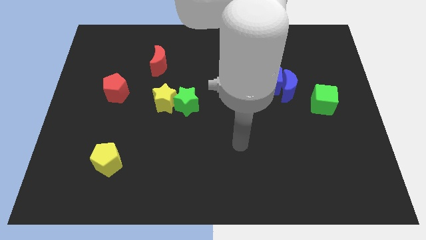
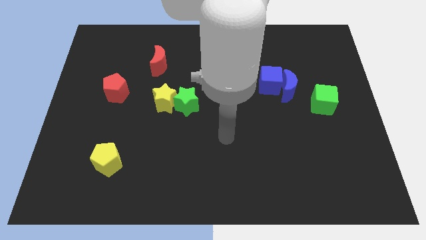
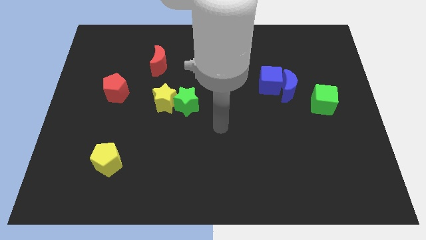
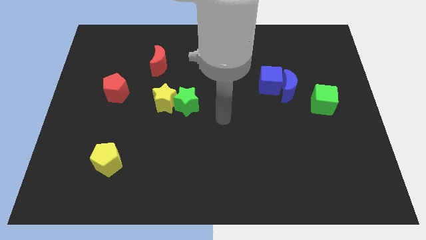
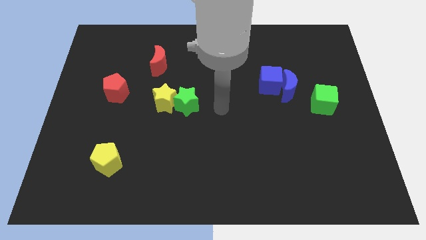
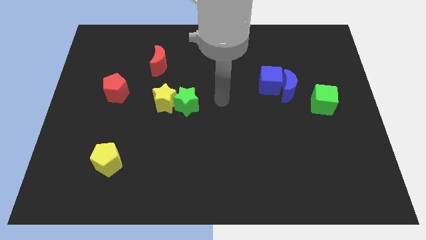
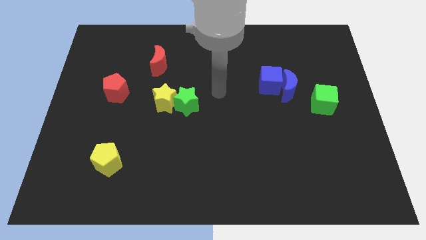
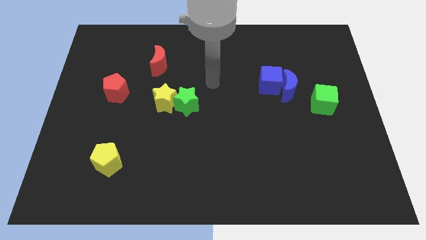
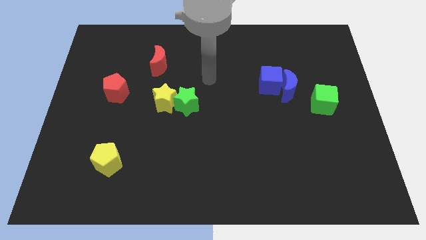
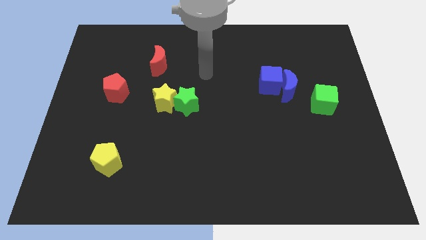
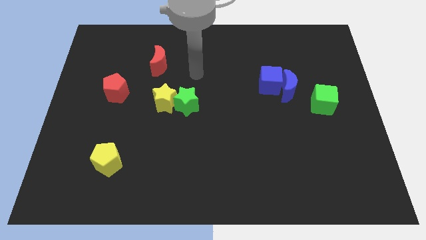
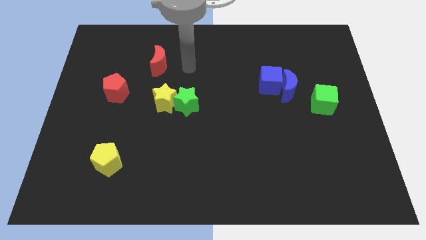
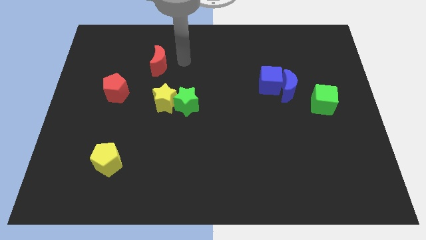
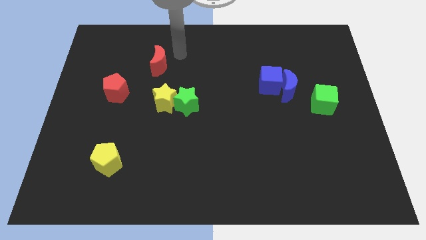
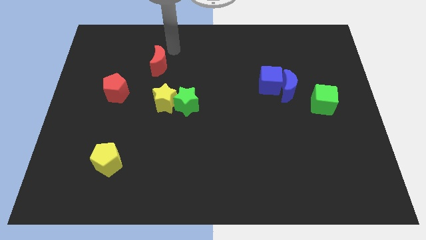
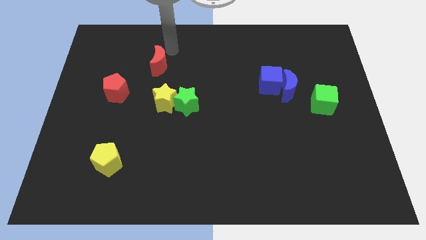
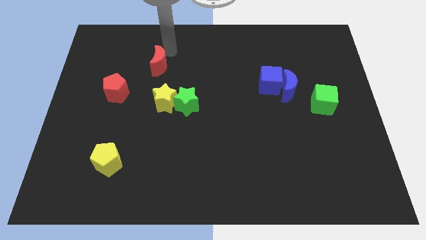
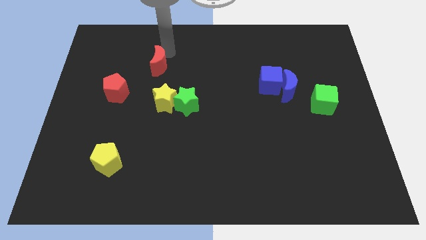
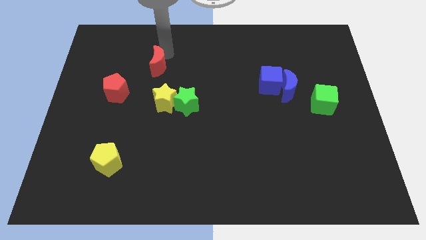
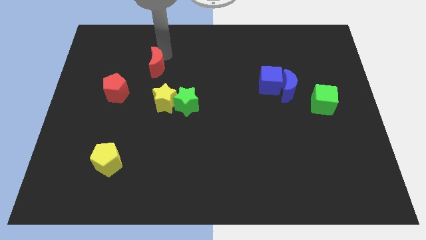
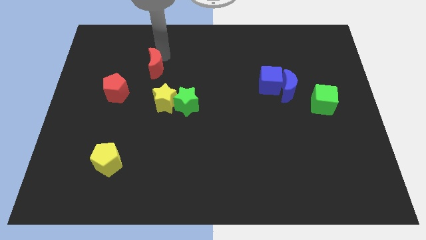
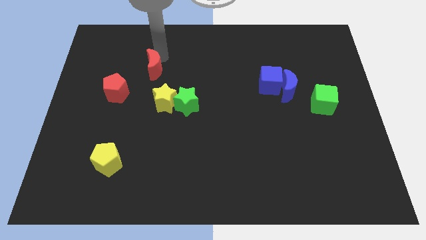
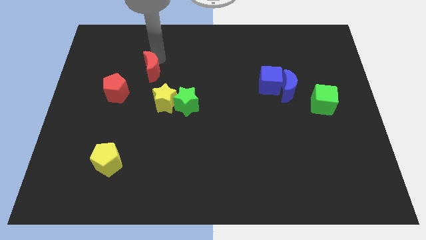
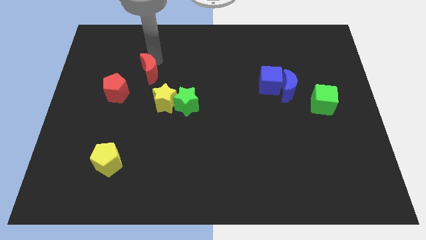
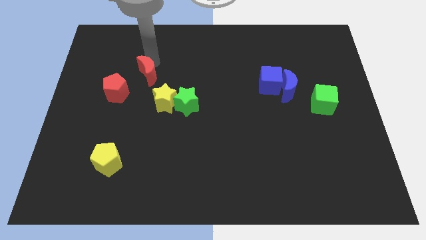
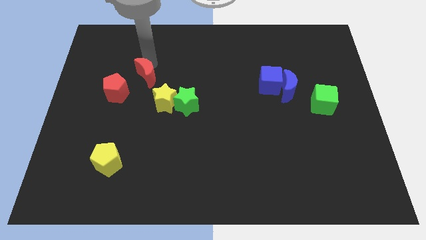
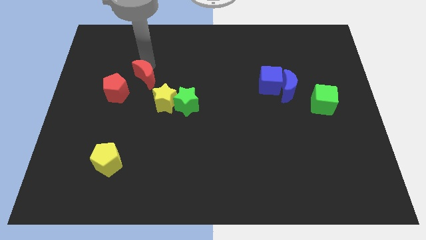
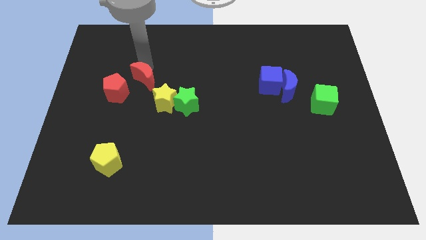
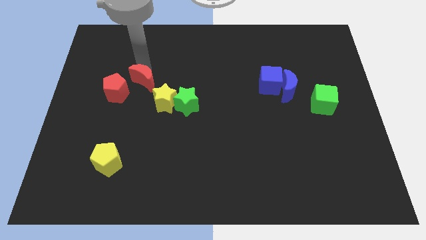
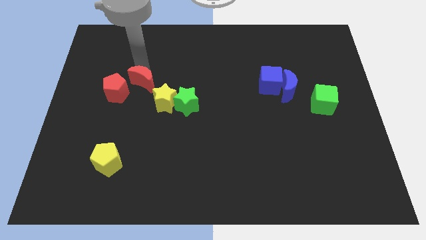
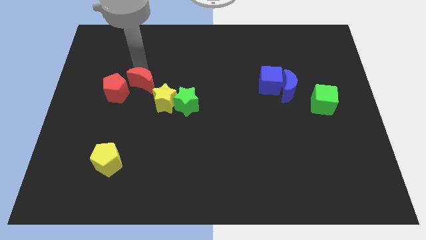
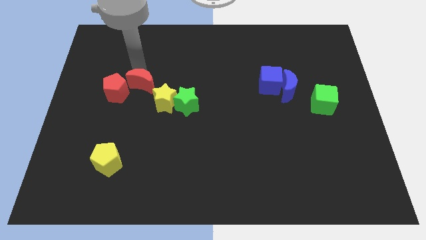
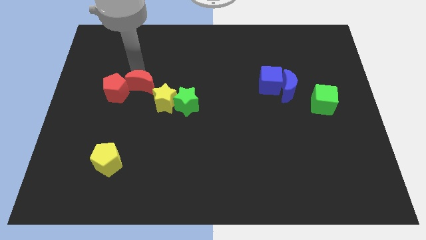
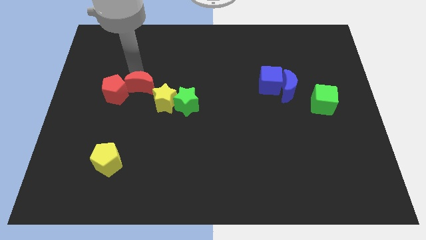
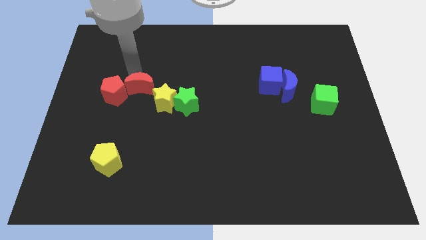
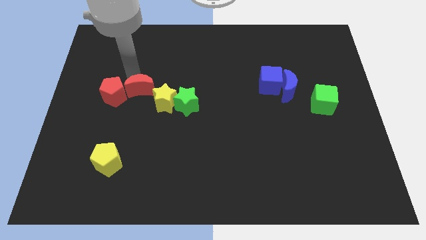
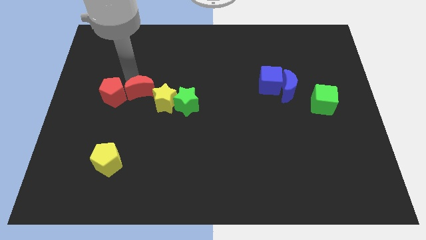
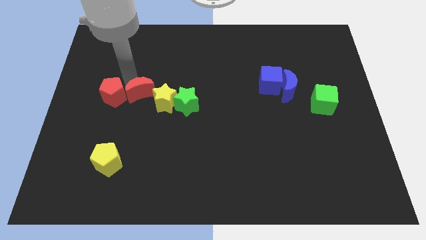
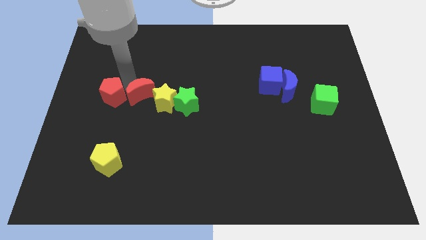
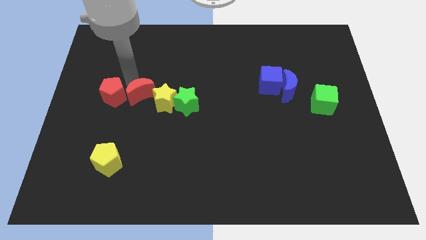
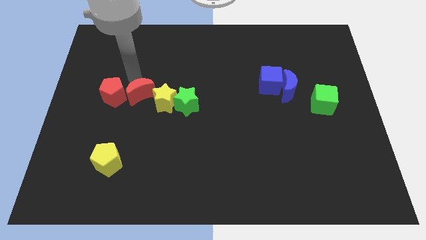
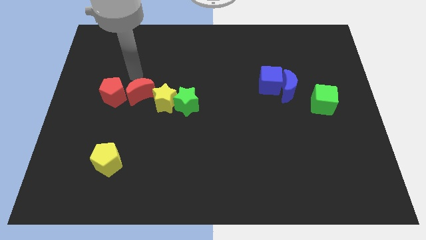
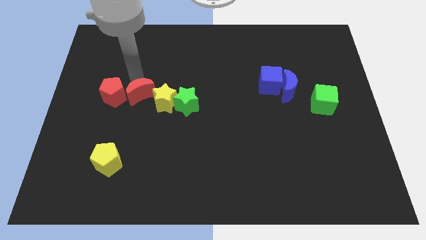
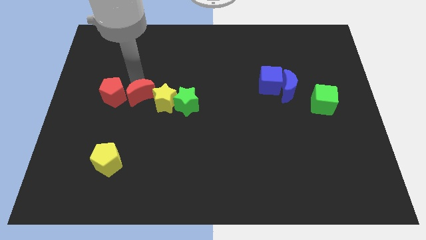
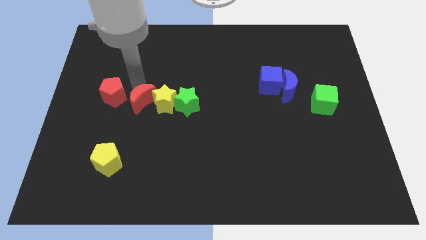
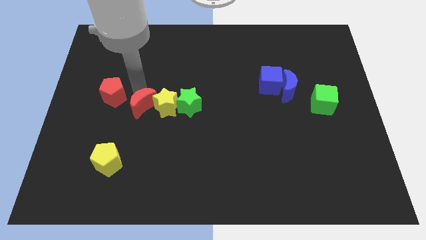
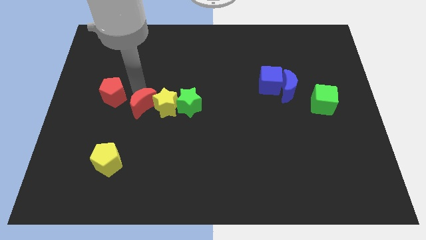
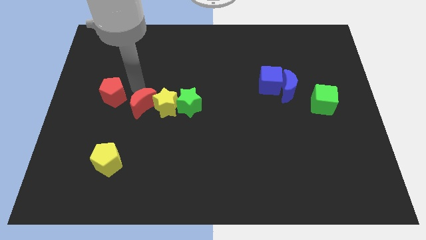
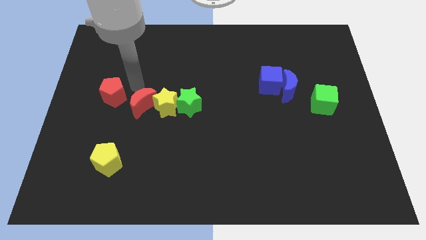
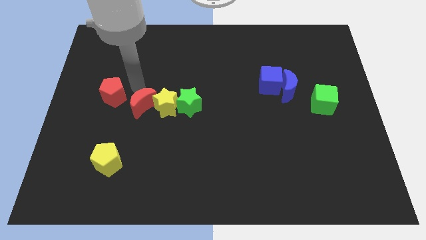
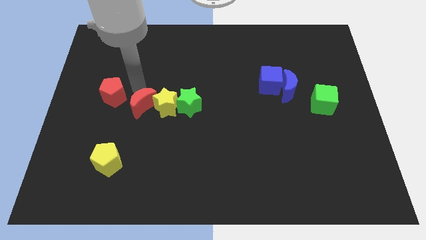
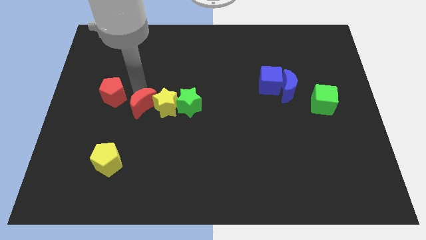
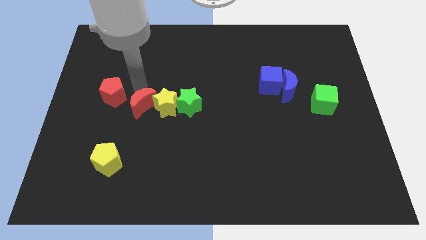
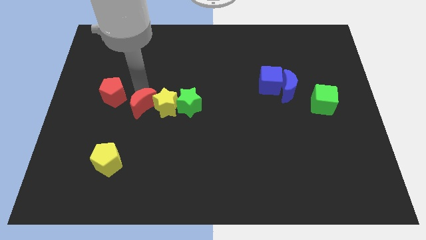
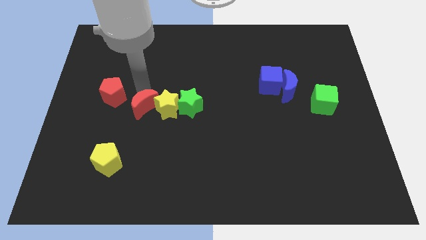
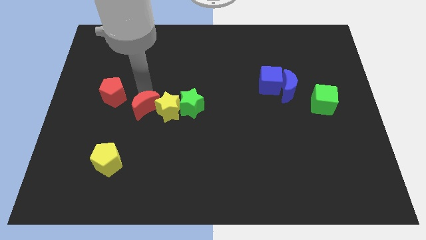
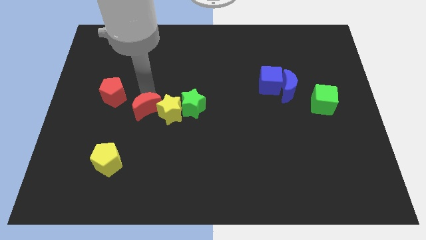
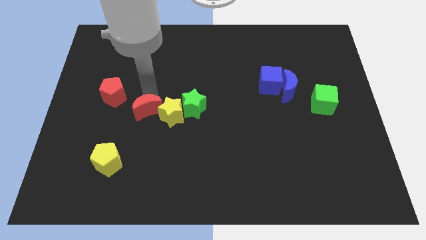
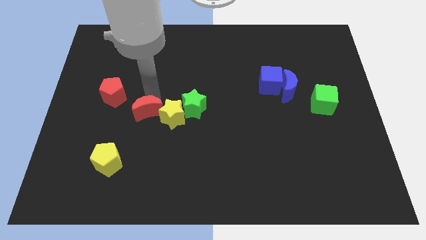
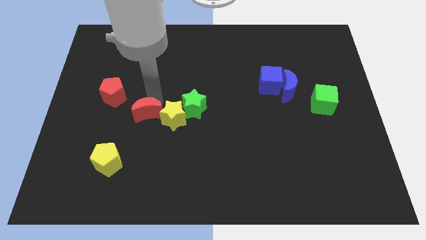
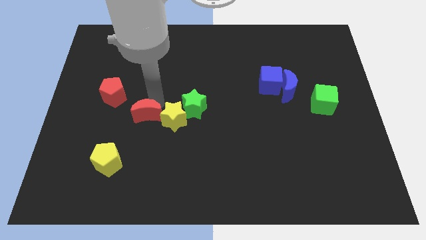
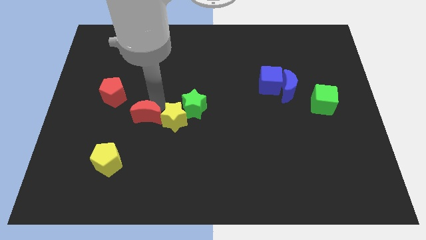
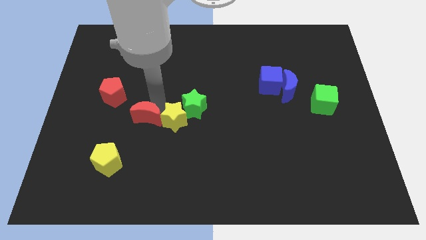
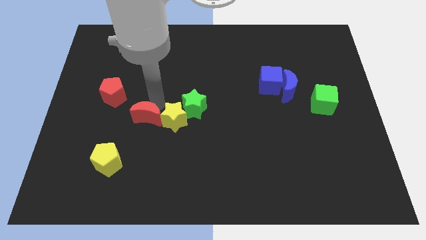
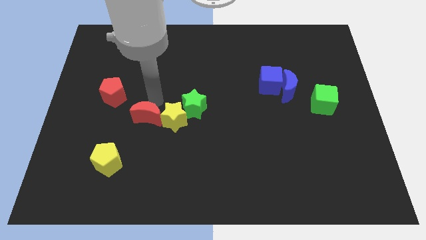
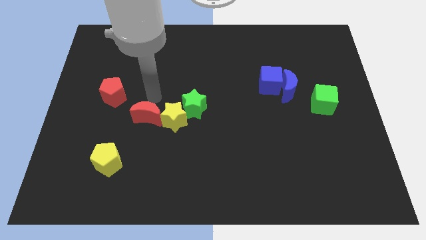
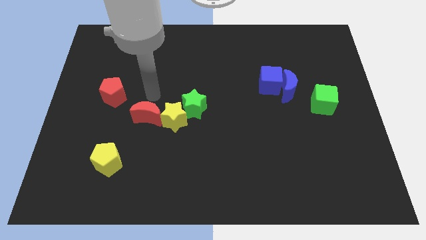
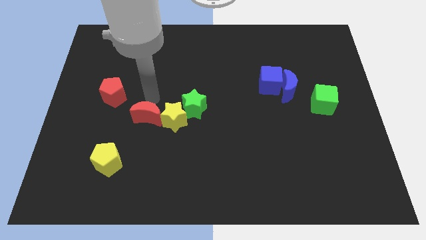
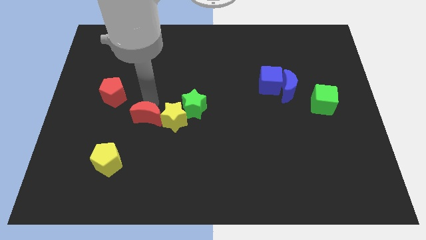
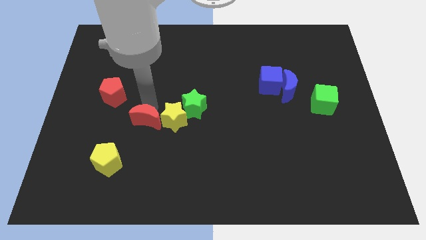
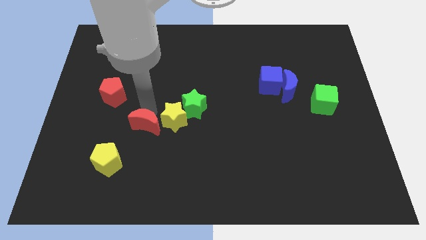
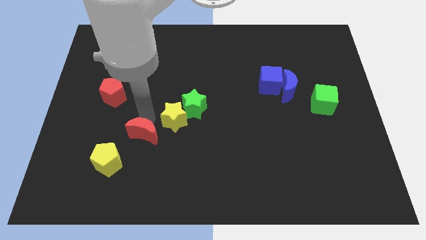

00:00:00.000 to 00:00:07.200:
push the red moon down

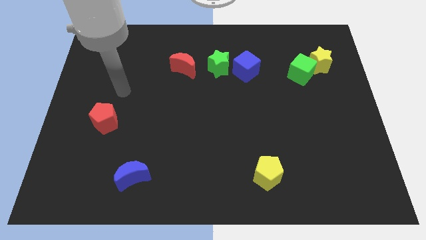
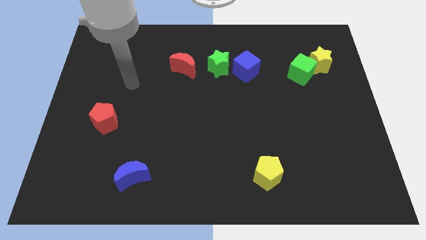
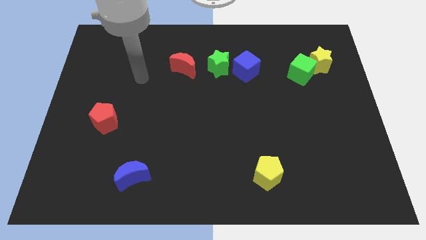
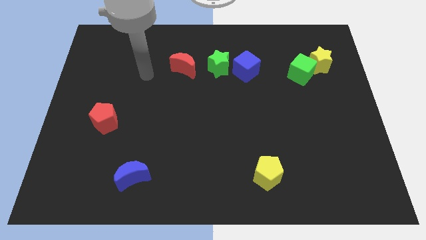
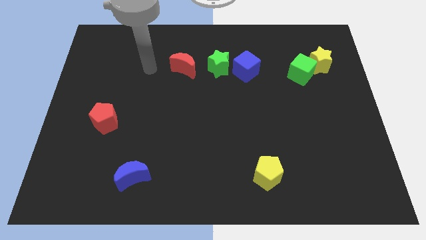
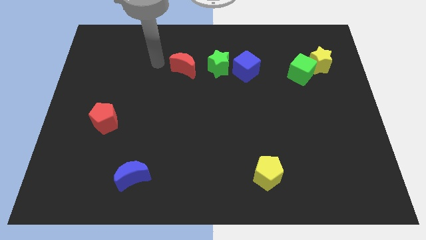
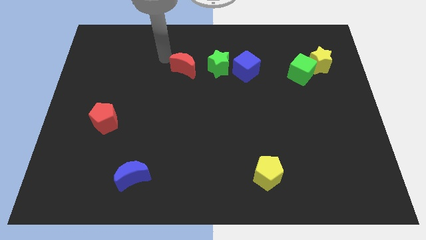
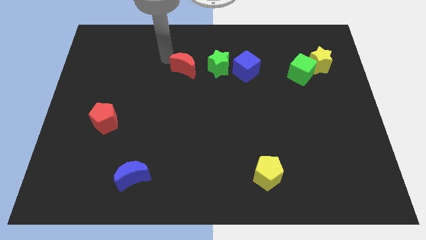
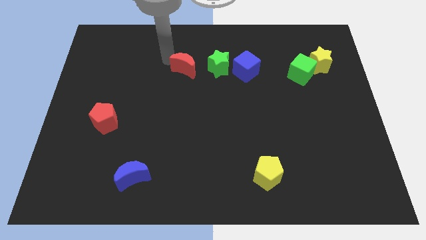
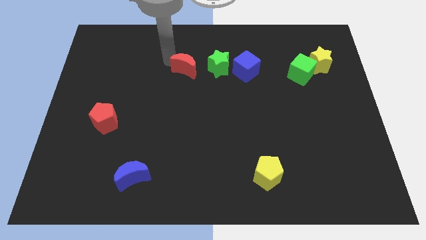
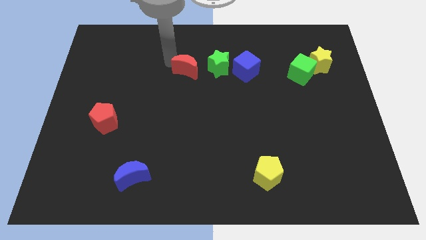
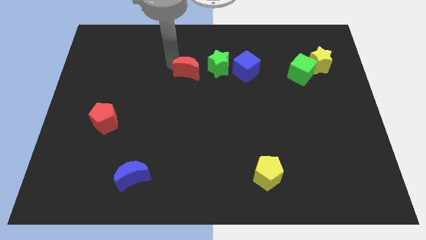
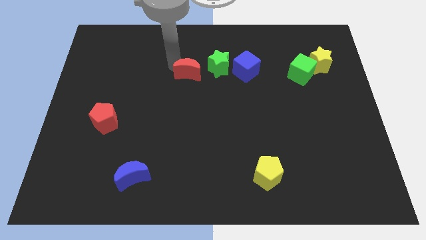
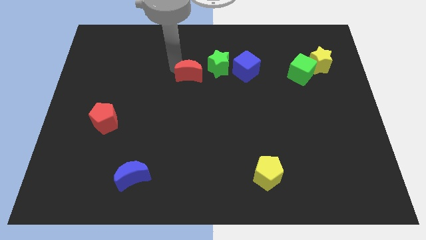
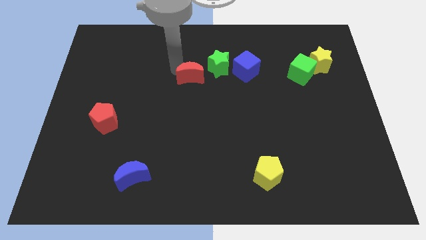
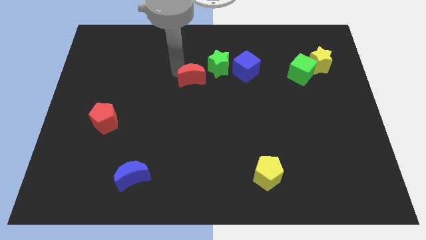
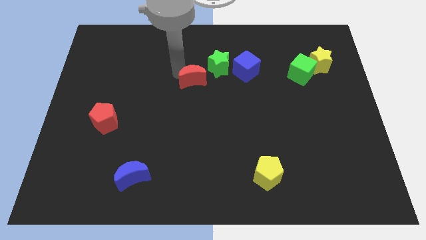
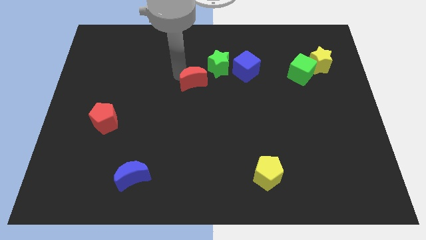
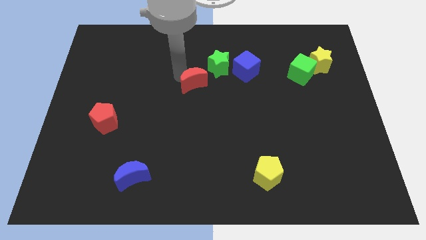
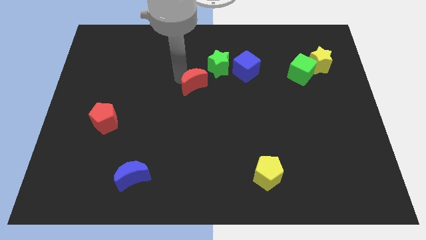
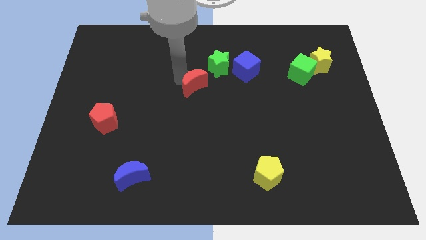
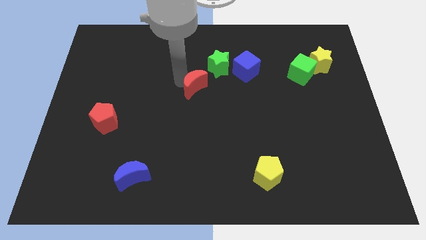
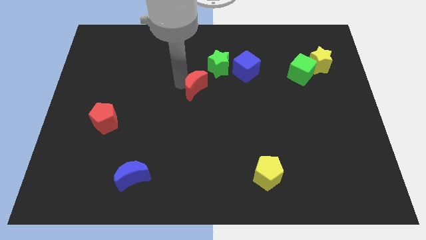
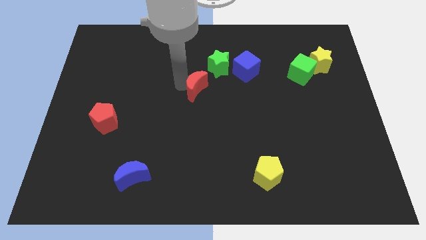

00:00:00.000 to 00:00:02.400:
slide the red moon downwards and then to the right slightly
